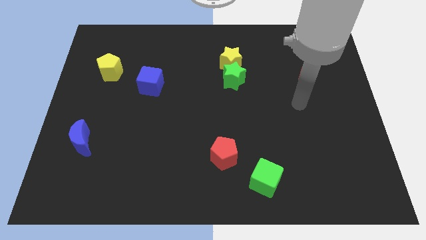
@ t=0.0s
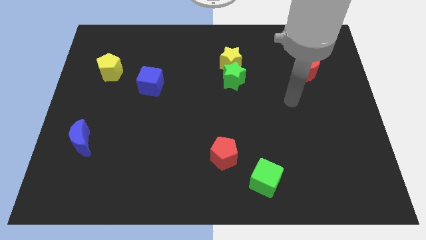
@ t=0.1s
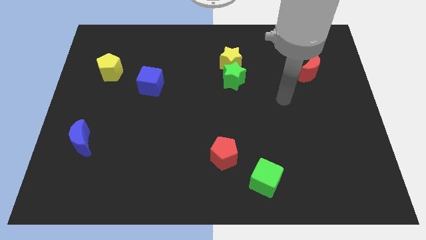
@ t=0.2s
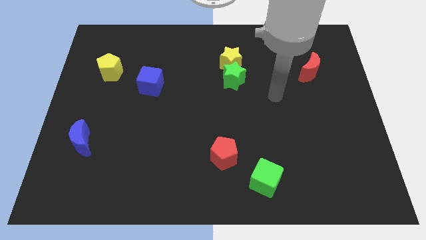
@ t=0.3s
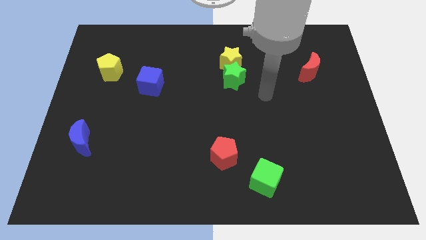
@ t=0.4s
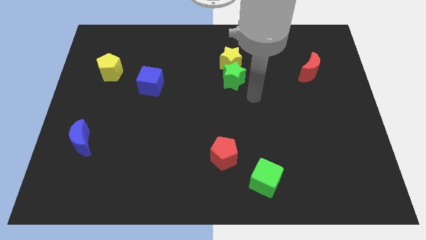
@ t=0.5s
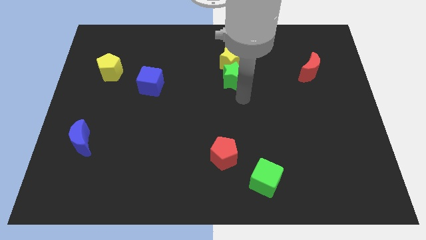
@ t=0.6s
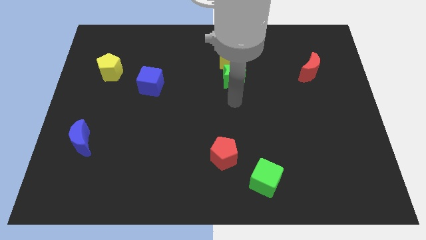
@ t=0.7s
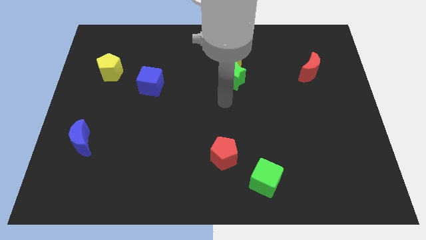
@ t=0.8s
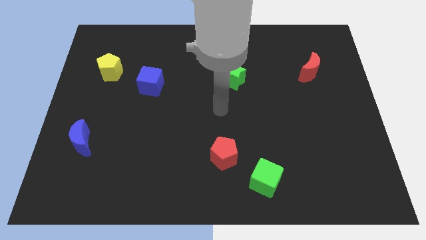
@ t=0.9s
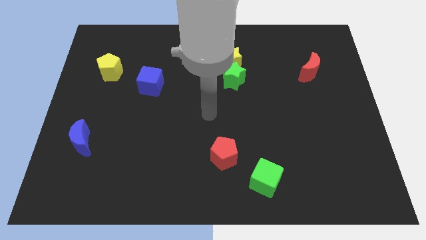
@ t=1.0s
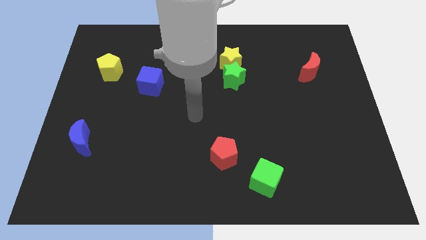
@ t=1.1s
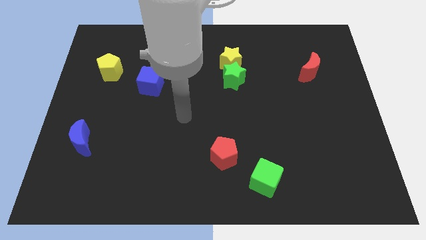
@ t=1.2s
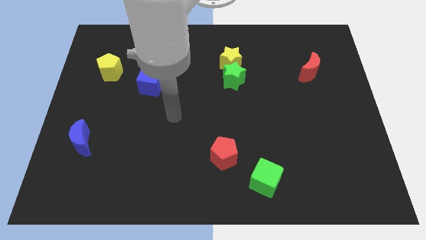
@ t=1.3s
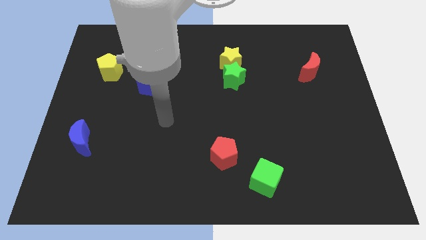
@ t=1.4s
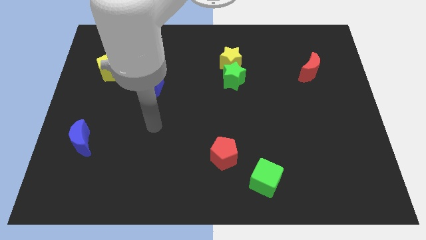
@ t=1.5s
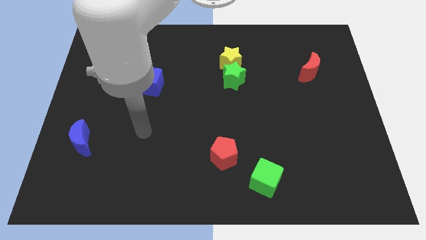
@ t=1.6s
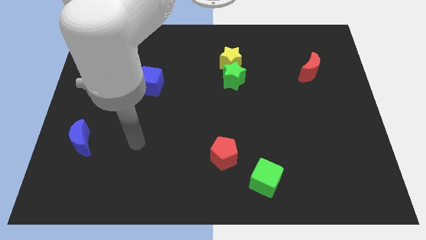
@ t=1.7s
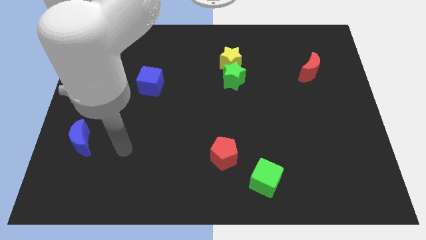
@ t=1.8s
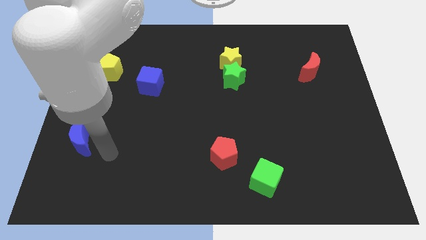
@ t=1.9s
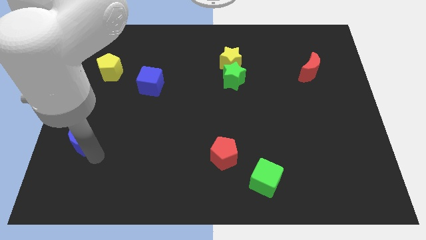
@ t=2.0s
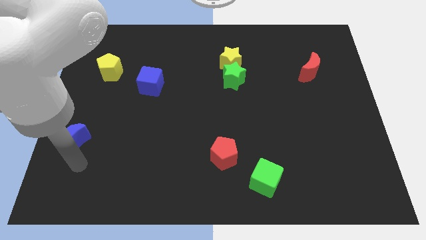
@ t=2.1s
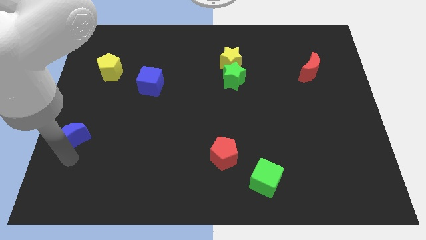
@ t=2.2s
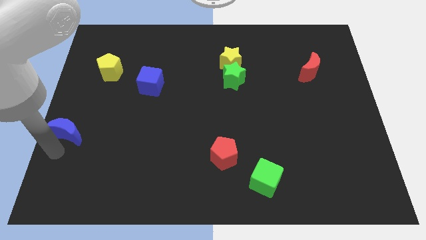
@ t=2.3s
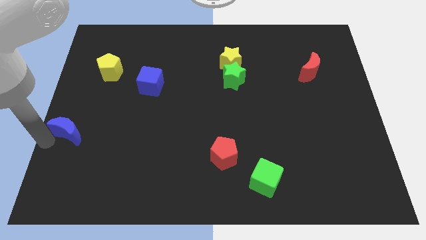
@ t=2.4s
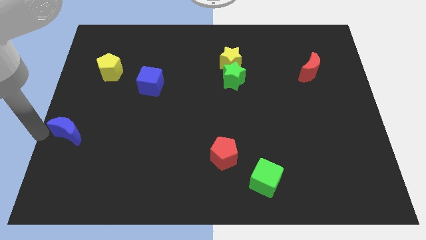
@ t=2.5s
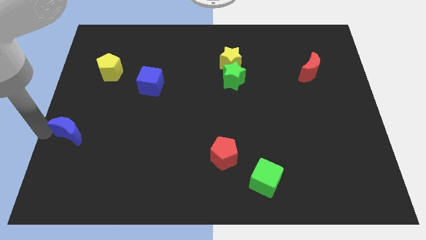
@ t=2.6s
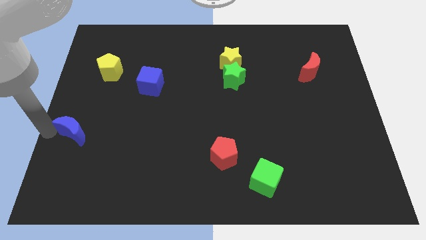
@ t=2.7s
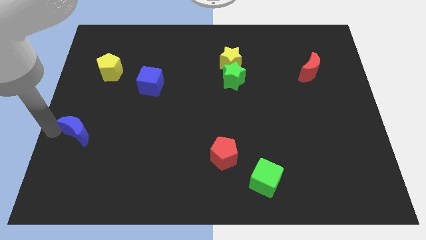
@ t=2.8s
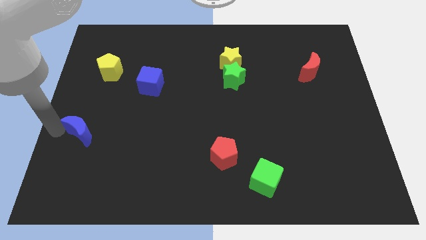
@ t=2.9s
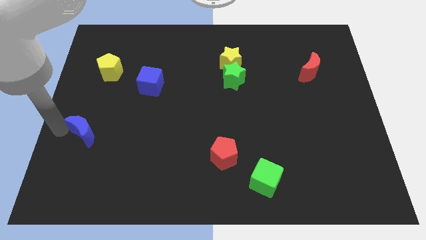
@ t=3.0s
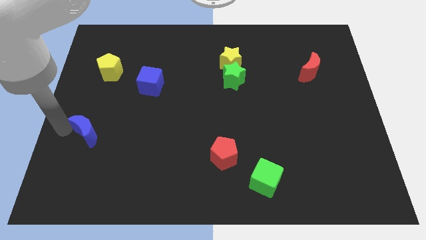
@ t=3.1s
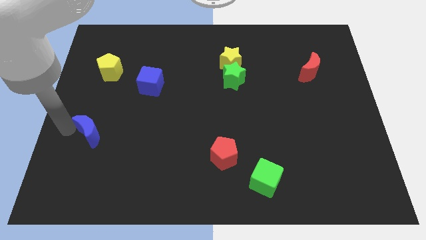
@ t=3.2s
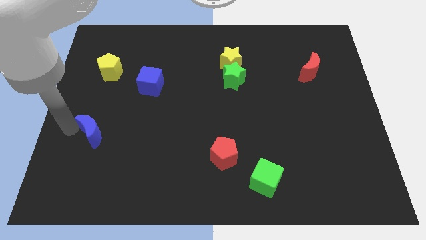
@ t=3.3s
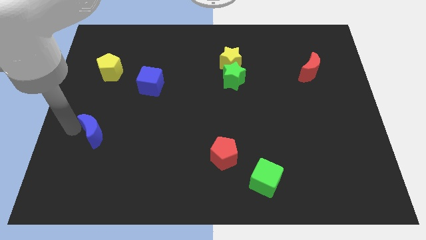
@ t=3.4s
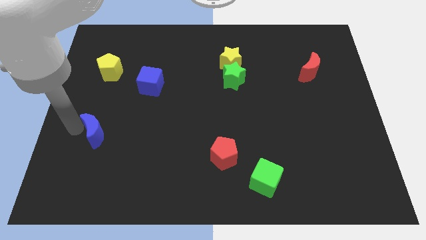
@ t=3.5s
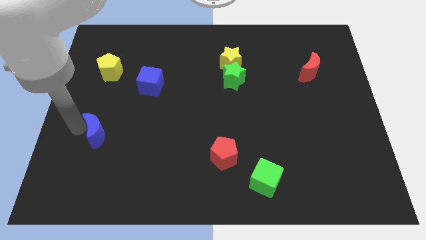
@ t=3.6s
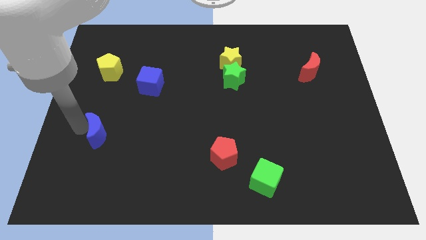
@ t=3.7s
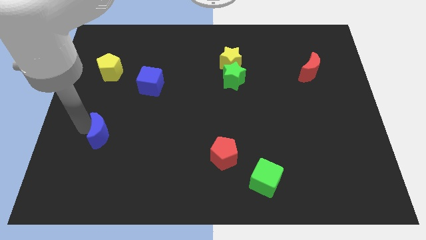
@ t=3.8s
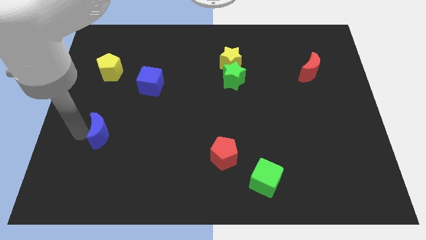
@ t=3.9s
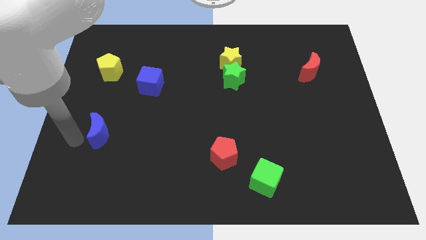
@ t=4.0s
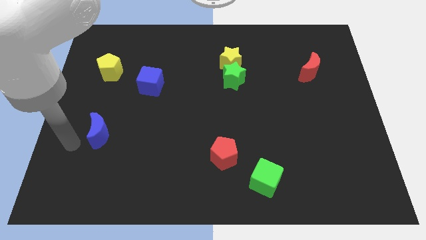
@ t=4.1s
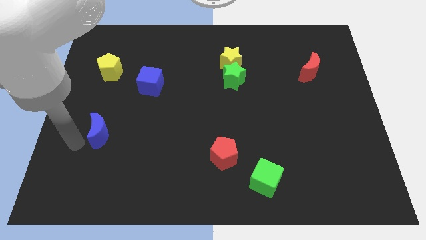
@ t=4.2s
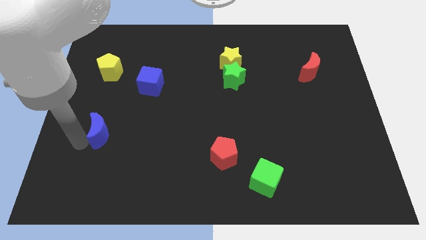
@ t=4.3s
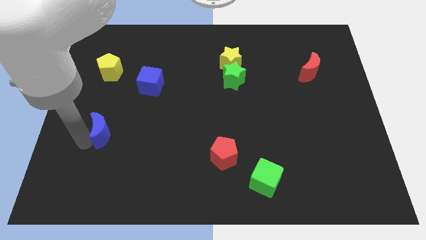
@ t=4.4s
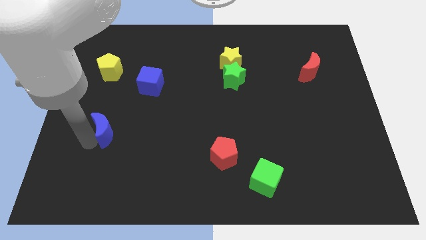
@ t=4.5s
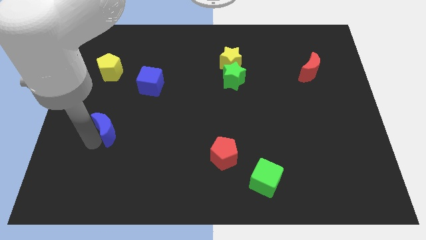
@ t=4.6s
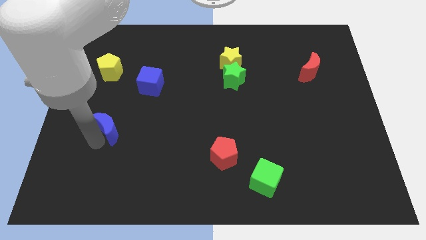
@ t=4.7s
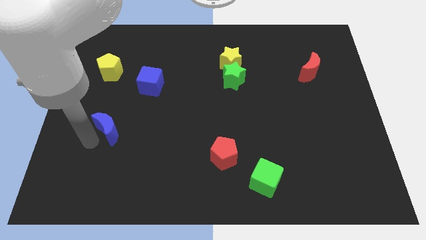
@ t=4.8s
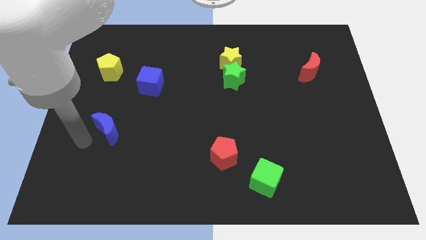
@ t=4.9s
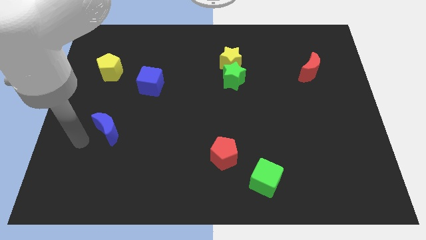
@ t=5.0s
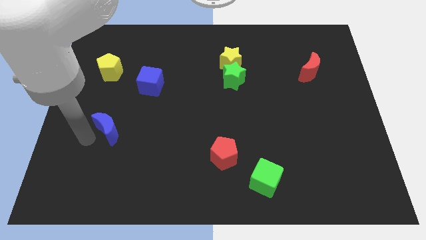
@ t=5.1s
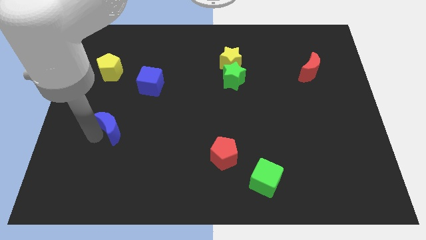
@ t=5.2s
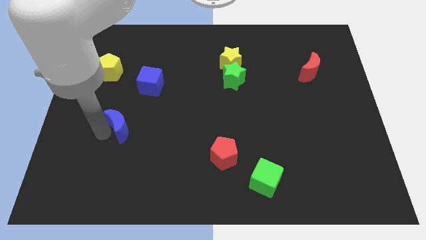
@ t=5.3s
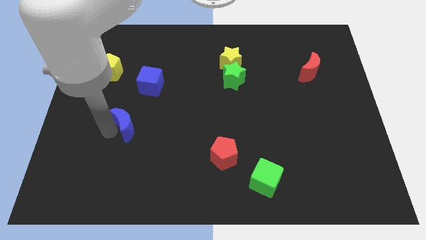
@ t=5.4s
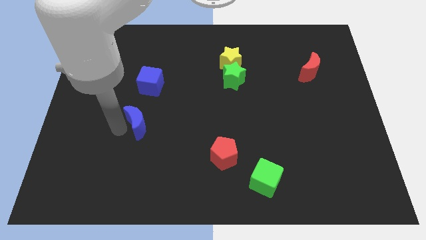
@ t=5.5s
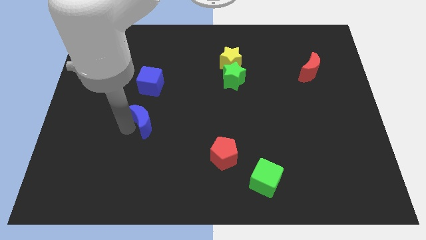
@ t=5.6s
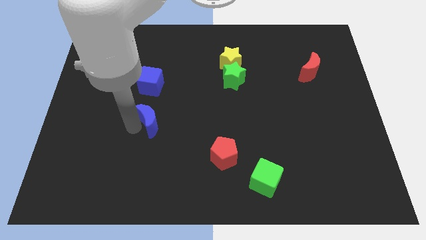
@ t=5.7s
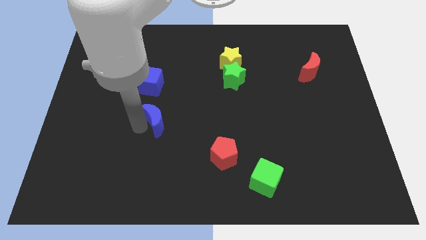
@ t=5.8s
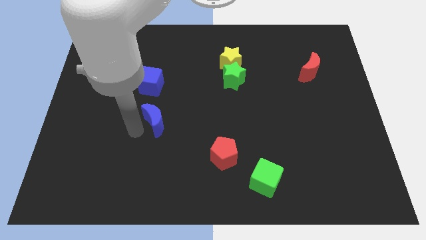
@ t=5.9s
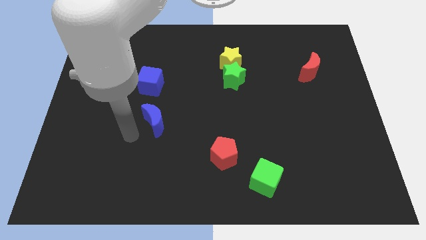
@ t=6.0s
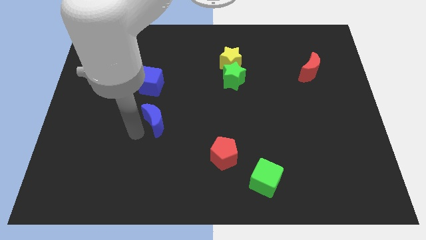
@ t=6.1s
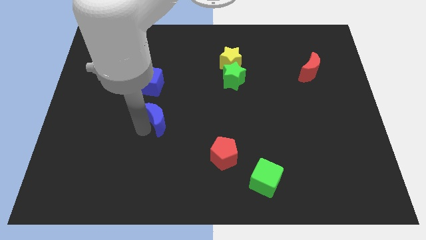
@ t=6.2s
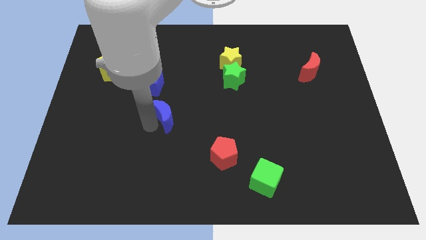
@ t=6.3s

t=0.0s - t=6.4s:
slide the blue moon to the center
